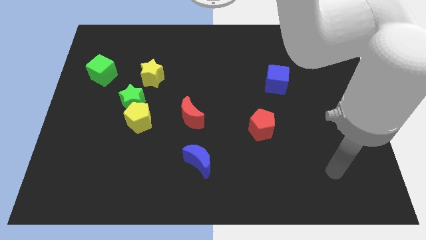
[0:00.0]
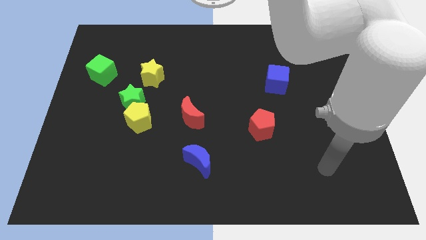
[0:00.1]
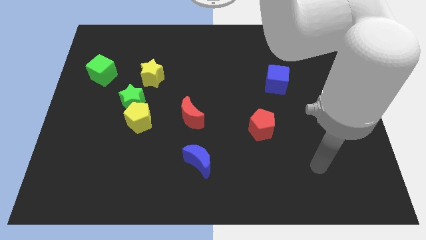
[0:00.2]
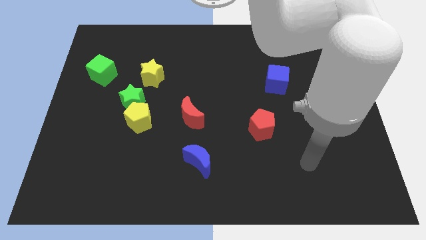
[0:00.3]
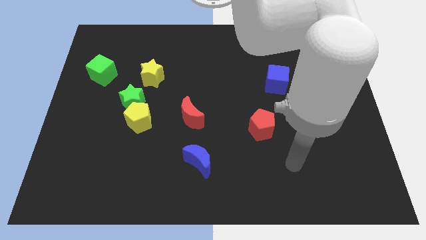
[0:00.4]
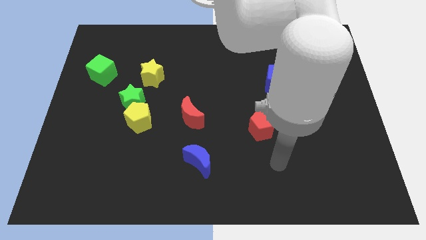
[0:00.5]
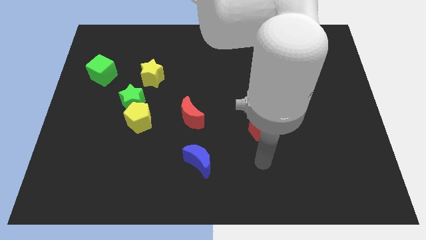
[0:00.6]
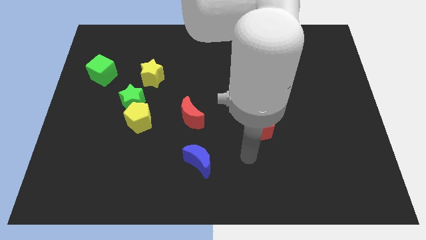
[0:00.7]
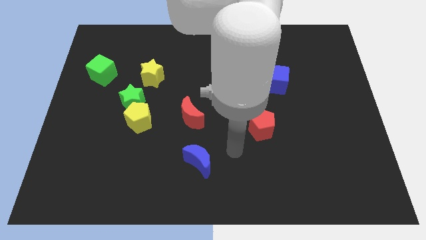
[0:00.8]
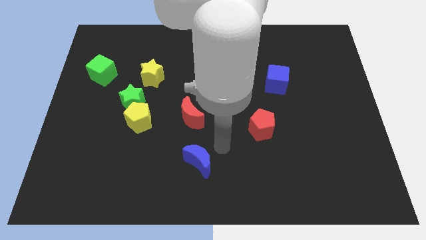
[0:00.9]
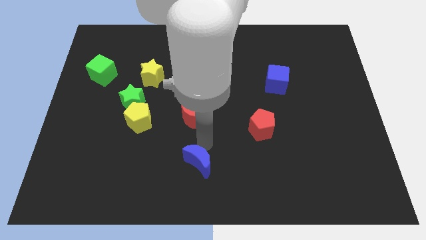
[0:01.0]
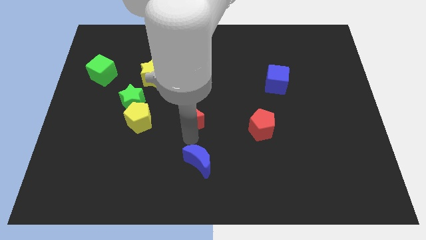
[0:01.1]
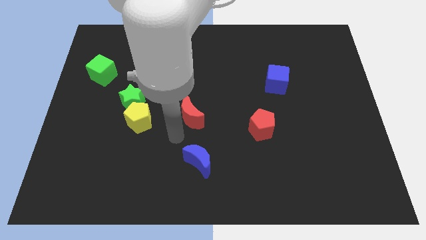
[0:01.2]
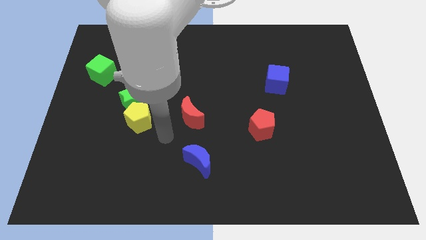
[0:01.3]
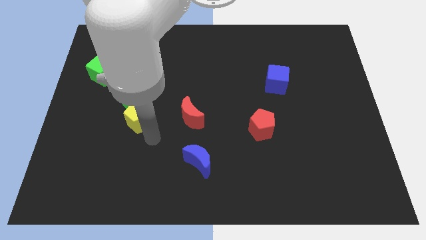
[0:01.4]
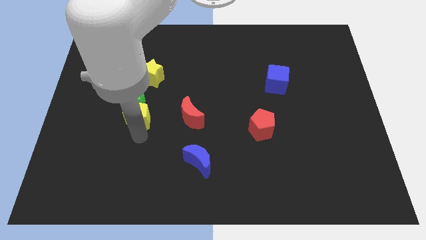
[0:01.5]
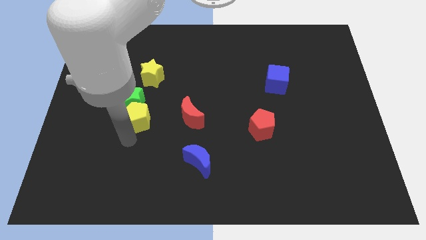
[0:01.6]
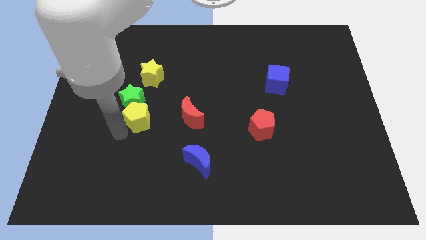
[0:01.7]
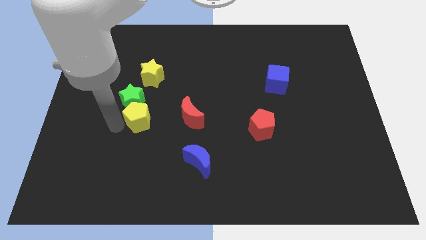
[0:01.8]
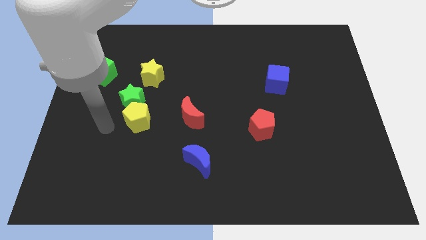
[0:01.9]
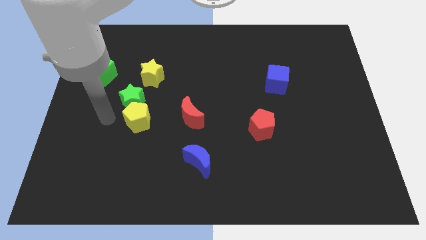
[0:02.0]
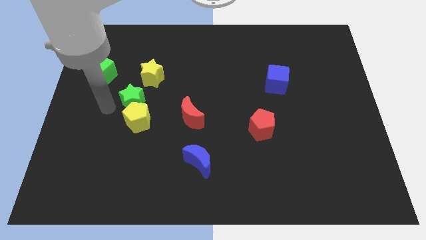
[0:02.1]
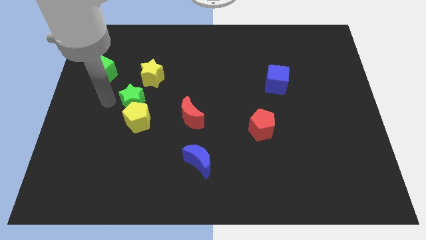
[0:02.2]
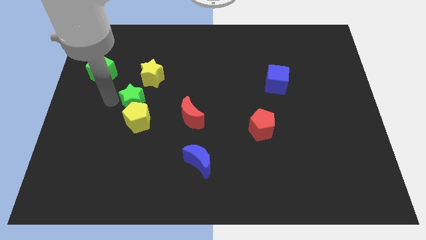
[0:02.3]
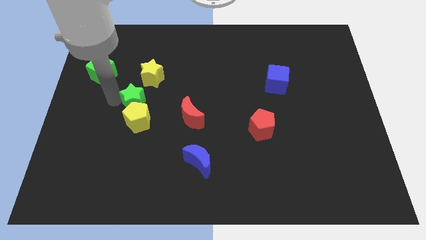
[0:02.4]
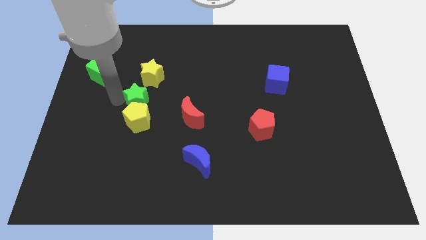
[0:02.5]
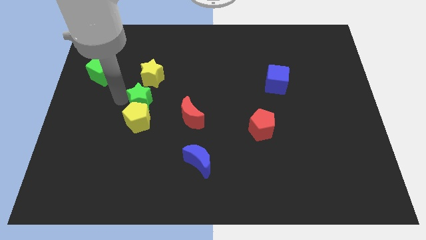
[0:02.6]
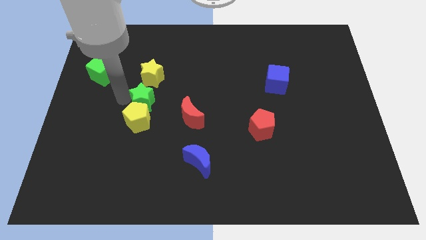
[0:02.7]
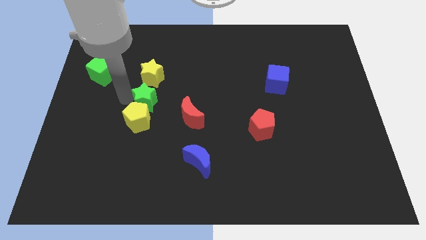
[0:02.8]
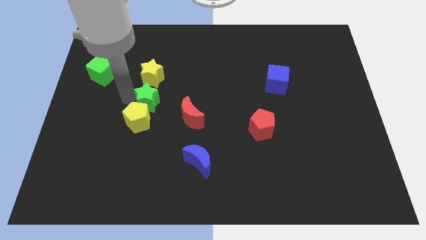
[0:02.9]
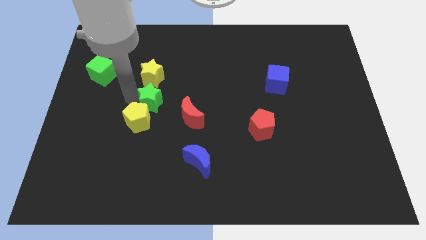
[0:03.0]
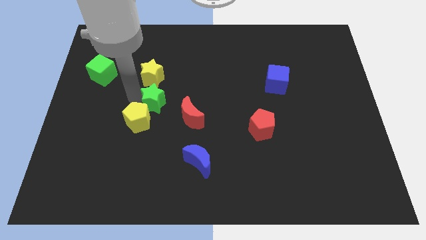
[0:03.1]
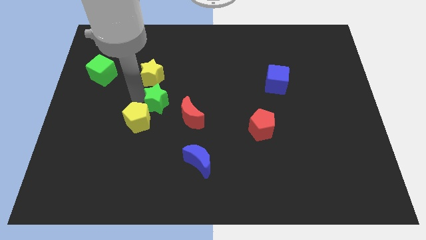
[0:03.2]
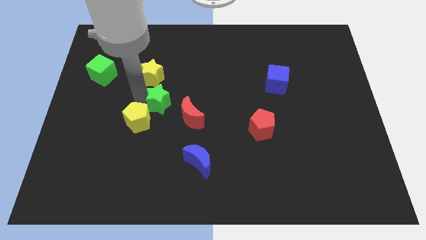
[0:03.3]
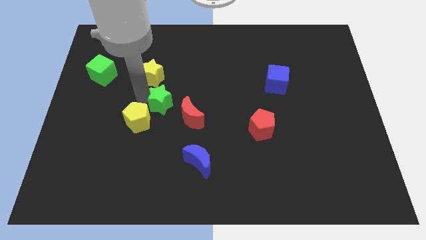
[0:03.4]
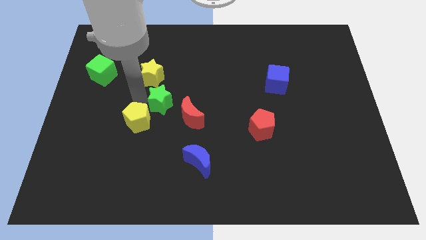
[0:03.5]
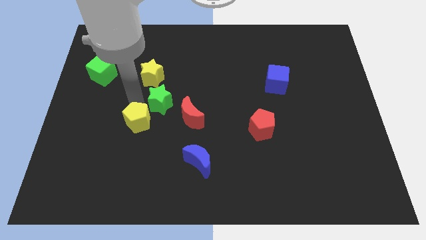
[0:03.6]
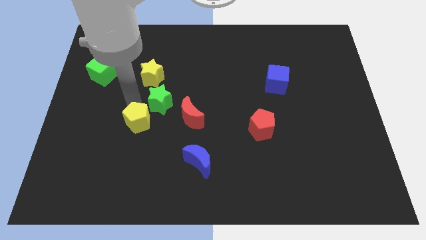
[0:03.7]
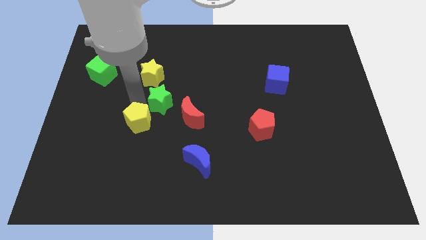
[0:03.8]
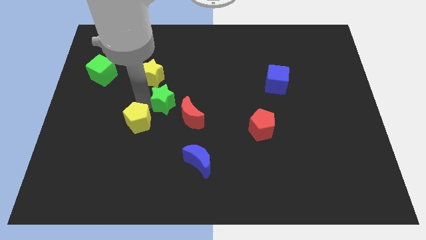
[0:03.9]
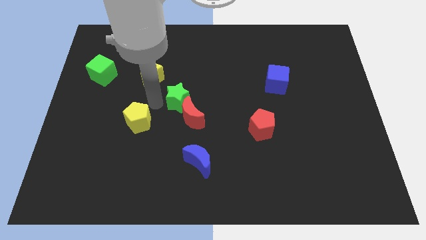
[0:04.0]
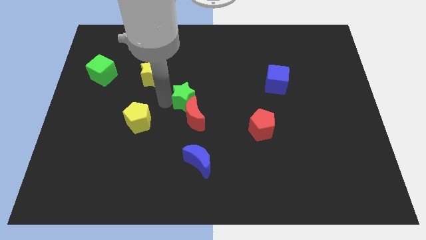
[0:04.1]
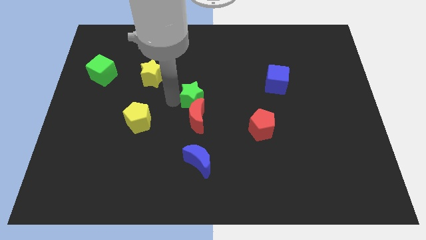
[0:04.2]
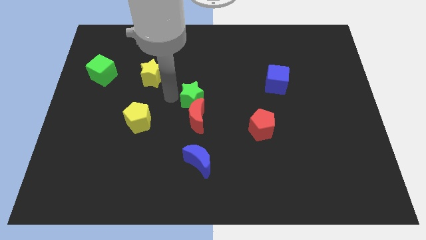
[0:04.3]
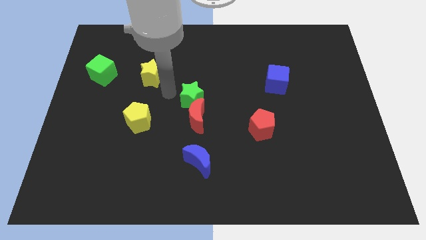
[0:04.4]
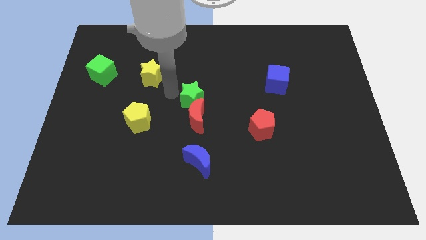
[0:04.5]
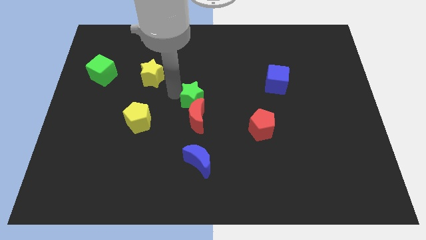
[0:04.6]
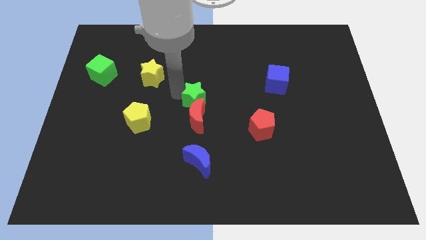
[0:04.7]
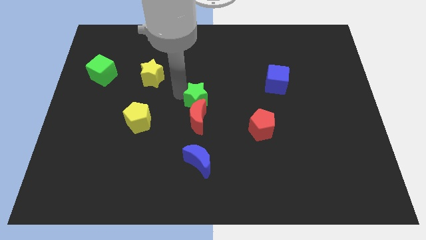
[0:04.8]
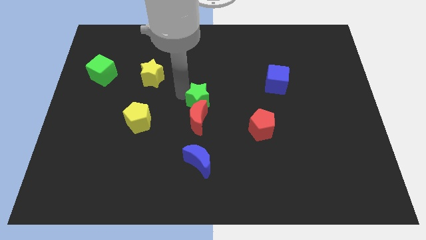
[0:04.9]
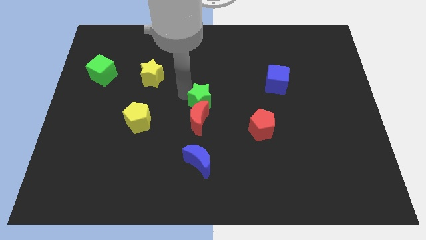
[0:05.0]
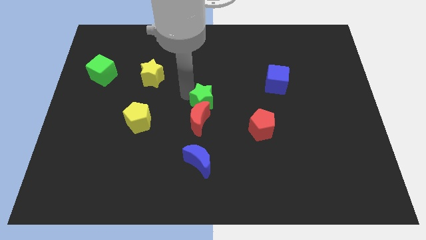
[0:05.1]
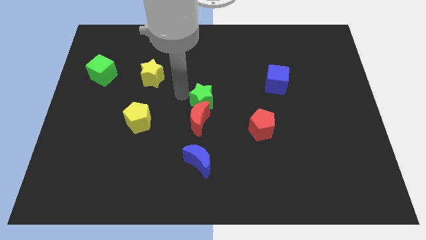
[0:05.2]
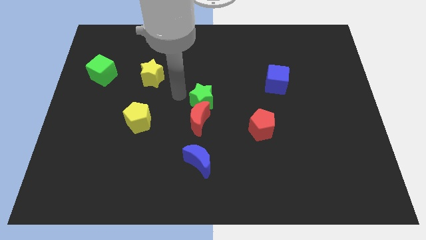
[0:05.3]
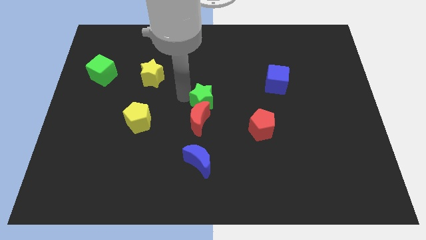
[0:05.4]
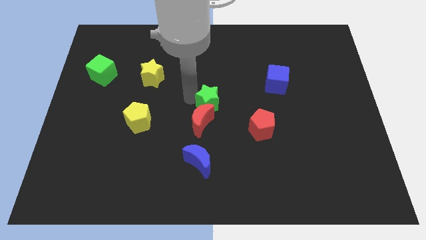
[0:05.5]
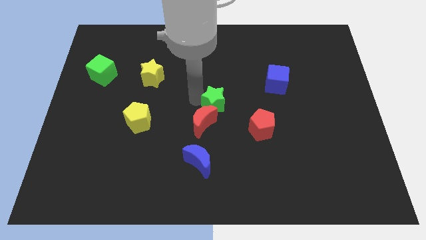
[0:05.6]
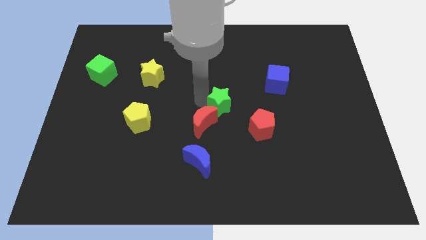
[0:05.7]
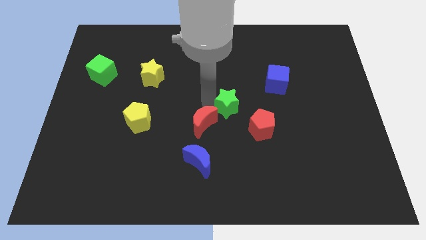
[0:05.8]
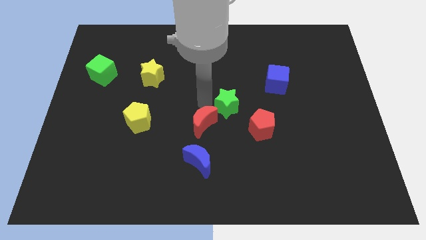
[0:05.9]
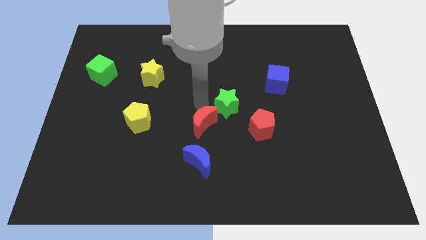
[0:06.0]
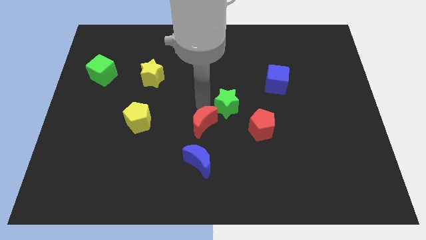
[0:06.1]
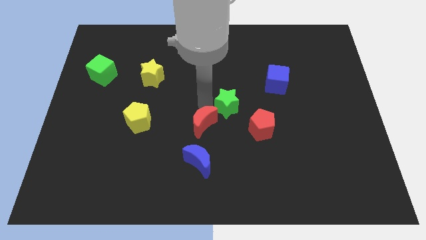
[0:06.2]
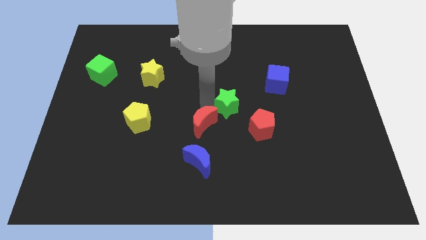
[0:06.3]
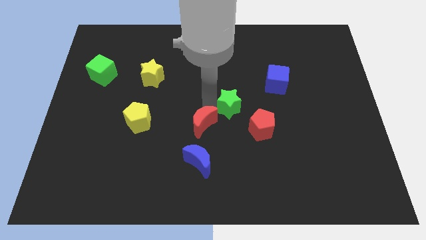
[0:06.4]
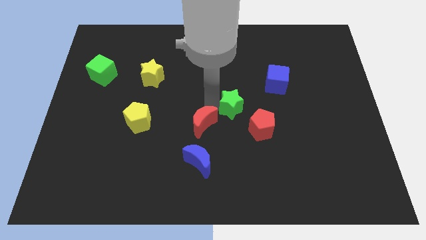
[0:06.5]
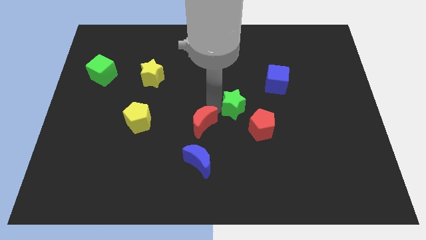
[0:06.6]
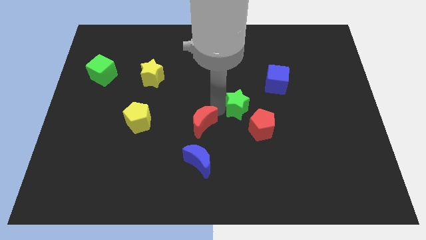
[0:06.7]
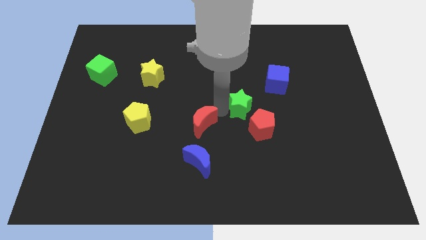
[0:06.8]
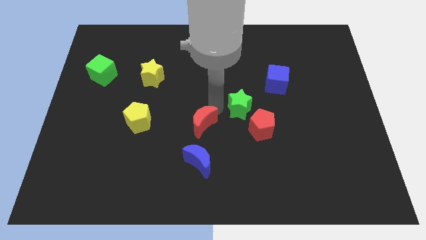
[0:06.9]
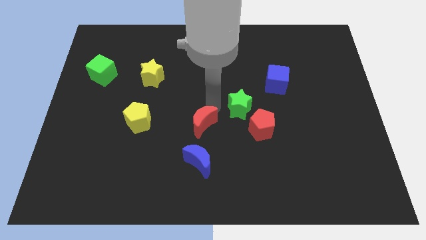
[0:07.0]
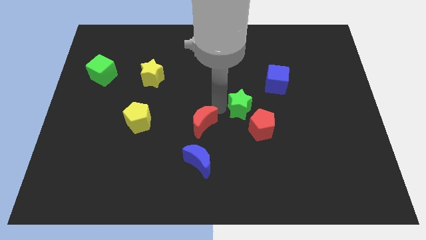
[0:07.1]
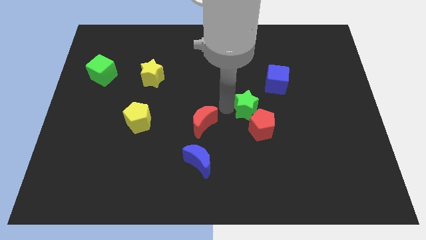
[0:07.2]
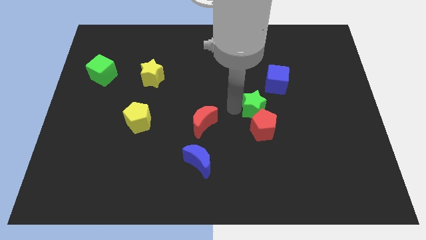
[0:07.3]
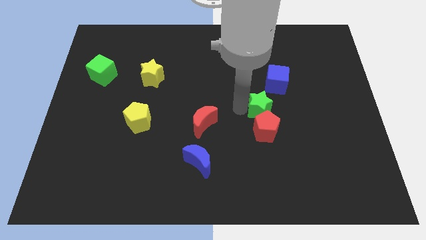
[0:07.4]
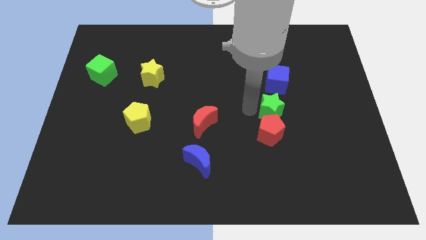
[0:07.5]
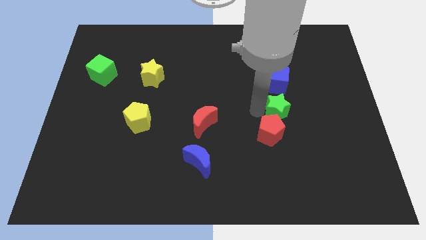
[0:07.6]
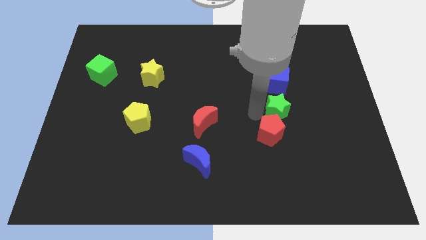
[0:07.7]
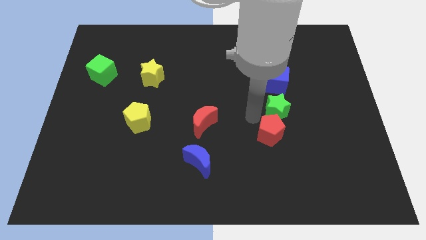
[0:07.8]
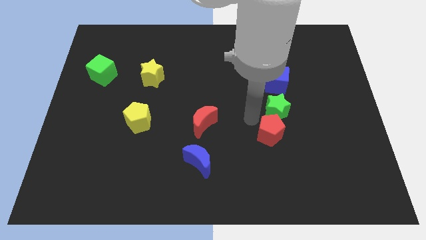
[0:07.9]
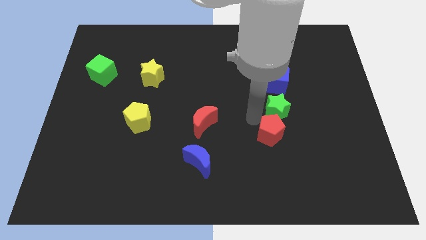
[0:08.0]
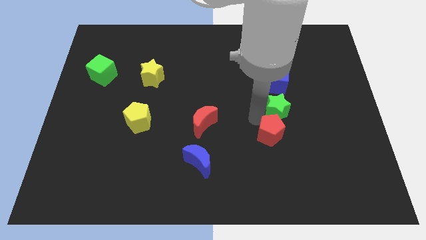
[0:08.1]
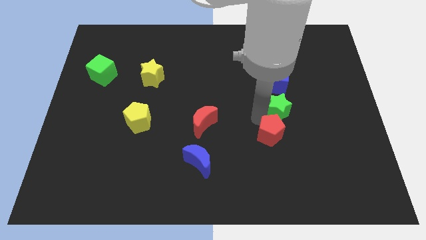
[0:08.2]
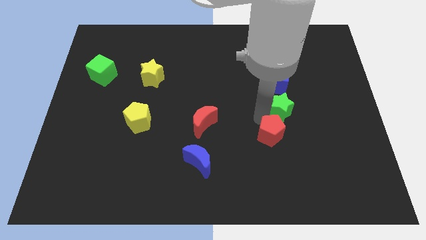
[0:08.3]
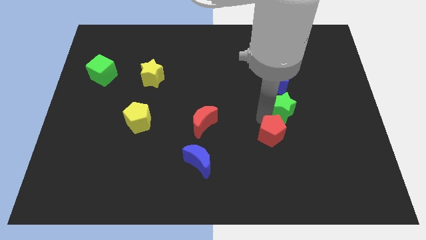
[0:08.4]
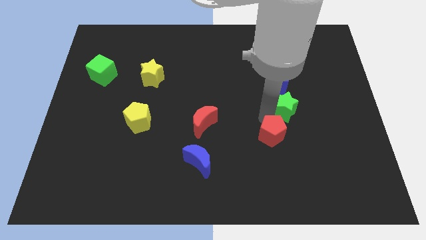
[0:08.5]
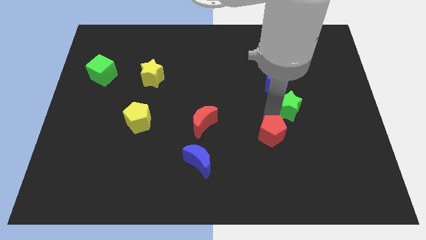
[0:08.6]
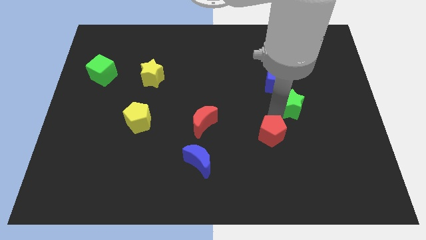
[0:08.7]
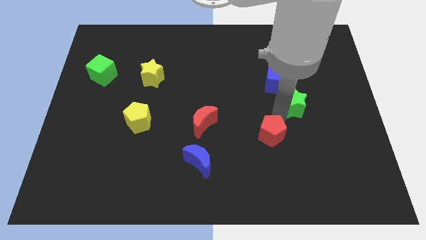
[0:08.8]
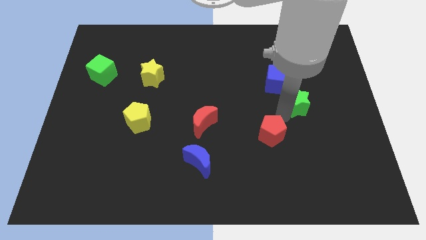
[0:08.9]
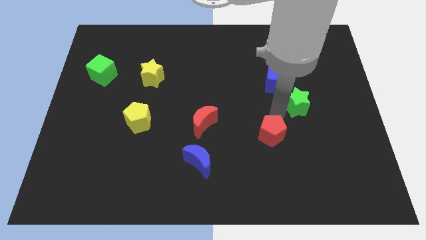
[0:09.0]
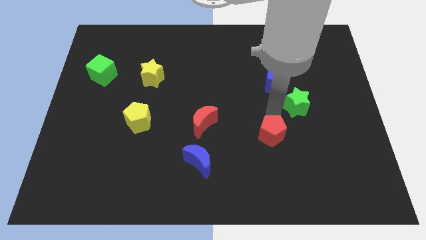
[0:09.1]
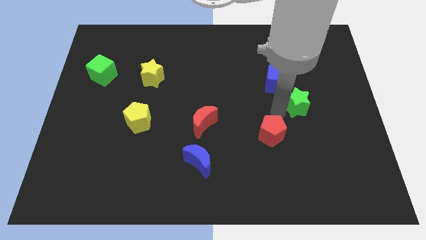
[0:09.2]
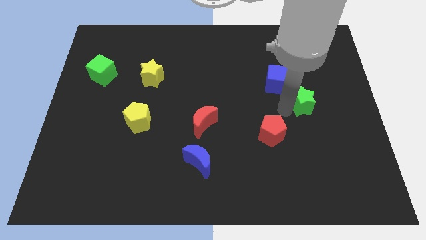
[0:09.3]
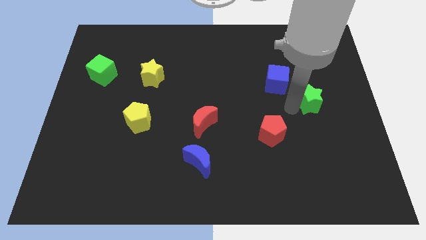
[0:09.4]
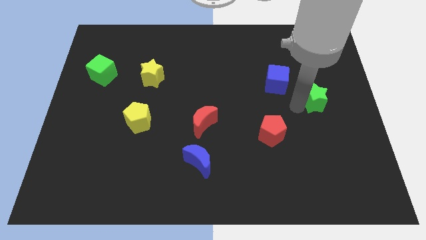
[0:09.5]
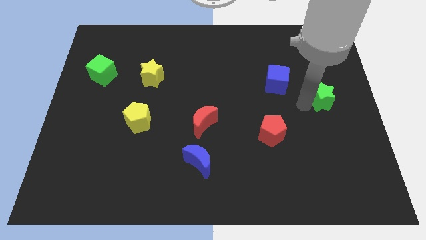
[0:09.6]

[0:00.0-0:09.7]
put the green star to the right side
